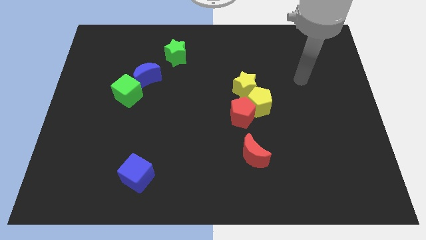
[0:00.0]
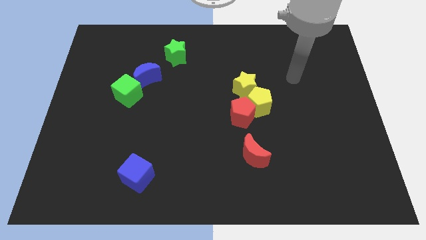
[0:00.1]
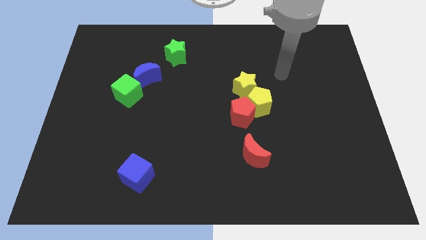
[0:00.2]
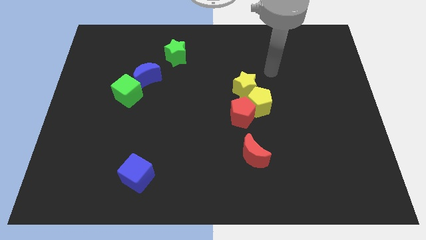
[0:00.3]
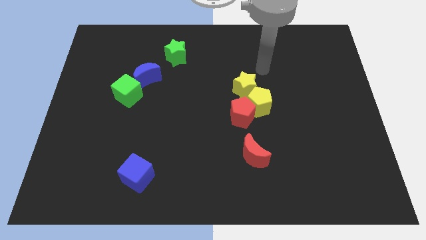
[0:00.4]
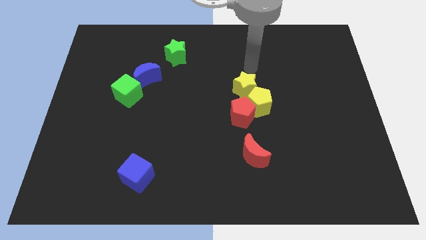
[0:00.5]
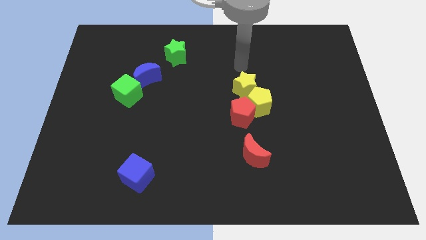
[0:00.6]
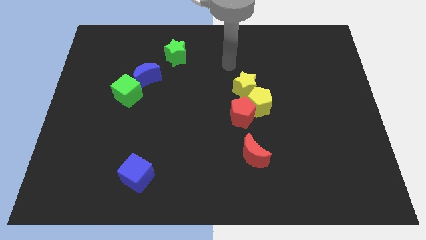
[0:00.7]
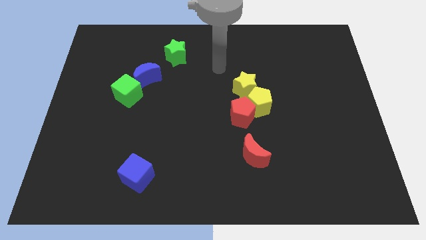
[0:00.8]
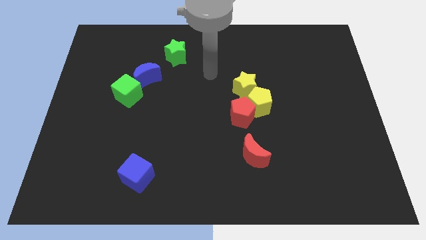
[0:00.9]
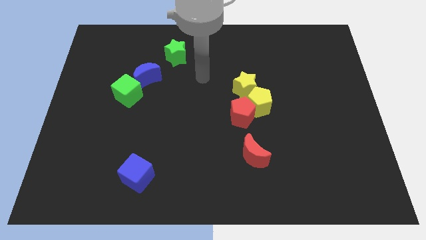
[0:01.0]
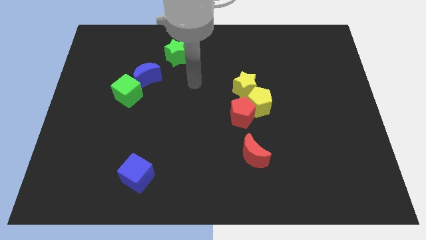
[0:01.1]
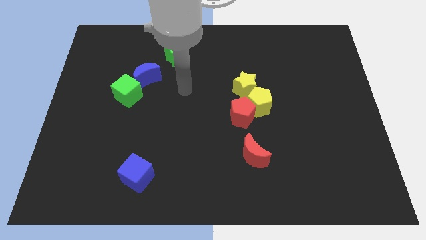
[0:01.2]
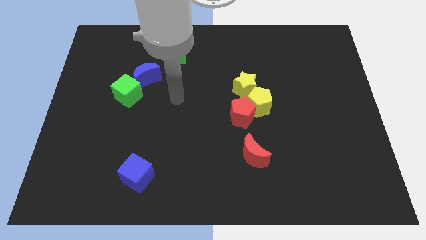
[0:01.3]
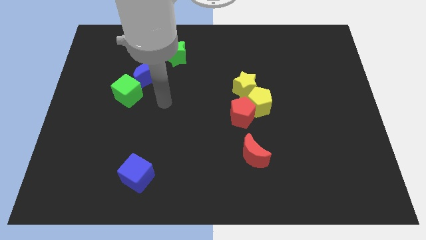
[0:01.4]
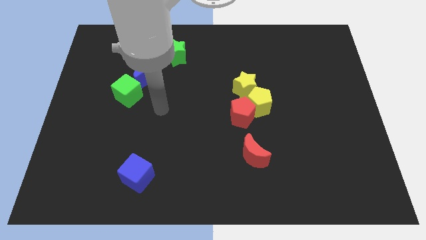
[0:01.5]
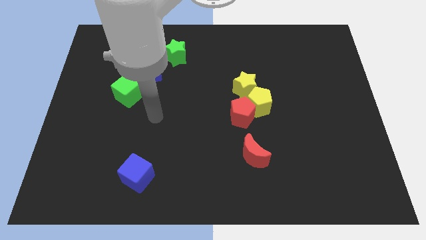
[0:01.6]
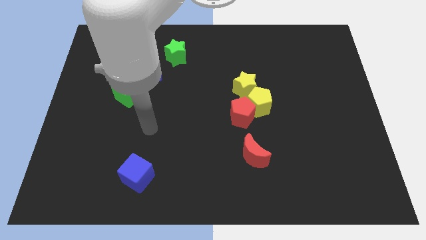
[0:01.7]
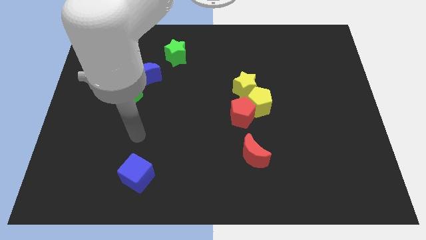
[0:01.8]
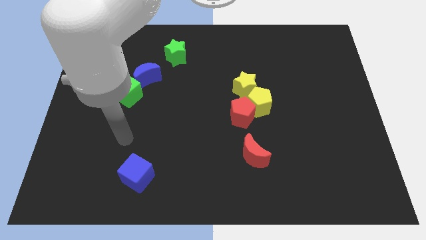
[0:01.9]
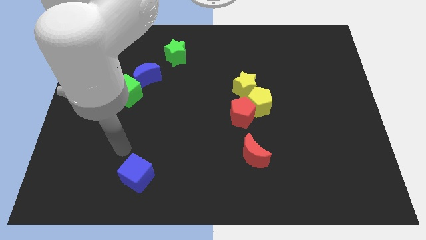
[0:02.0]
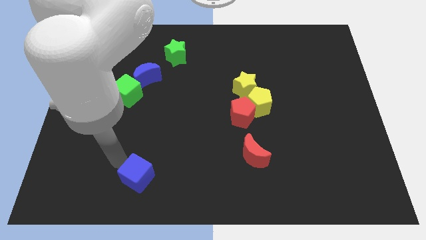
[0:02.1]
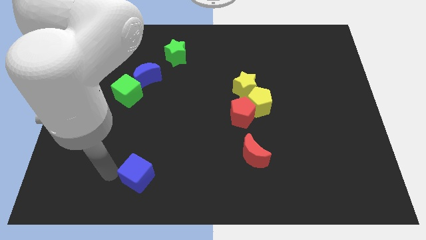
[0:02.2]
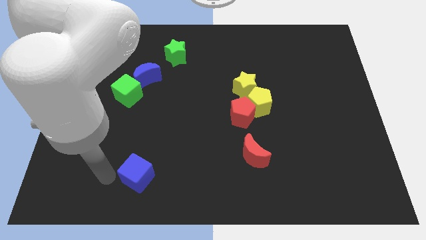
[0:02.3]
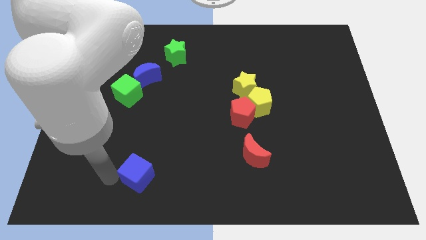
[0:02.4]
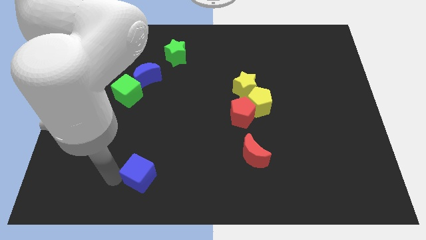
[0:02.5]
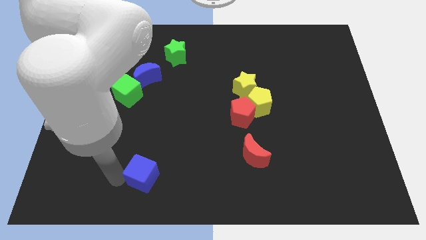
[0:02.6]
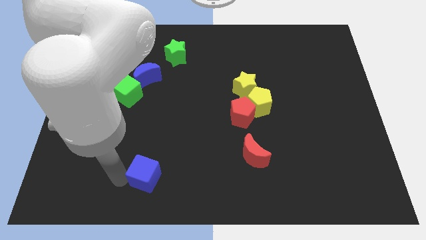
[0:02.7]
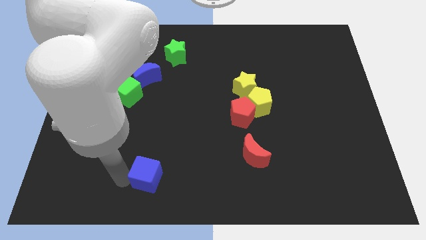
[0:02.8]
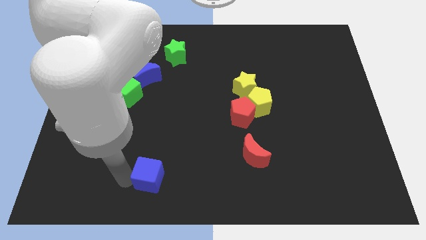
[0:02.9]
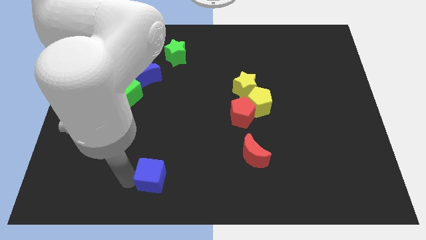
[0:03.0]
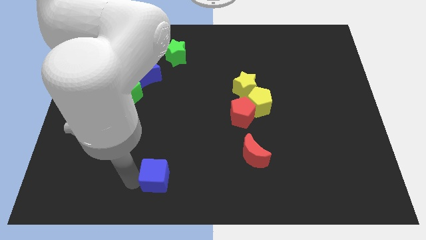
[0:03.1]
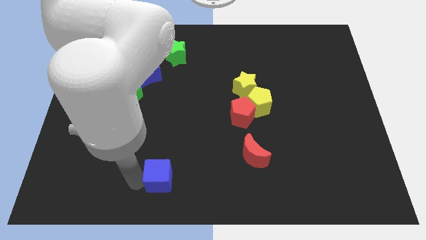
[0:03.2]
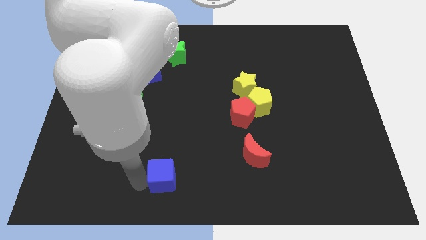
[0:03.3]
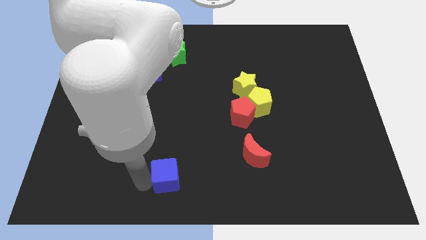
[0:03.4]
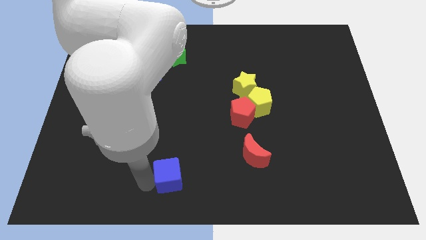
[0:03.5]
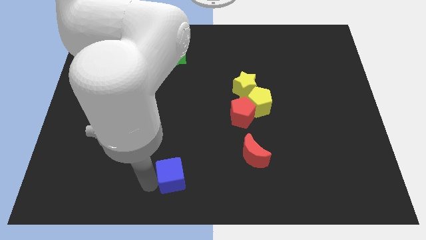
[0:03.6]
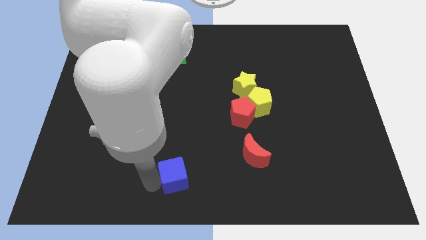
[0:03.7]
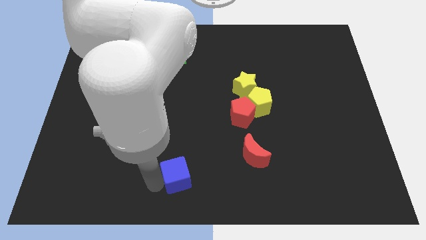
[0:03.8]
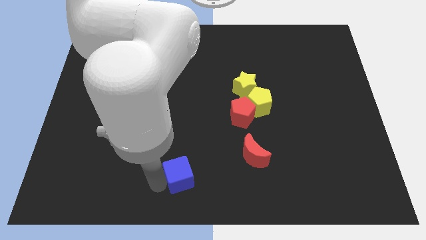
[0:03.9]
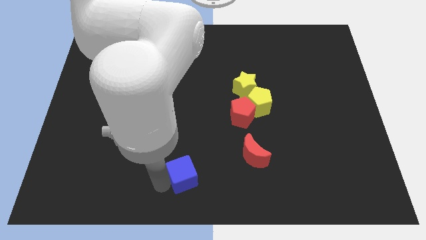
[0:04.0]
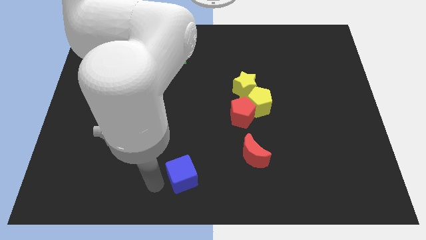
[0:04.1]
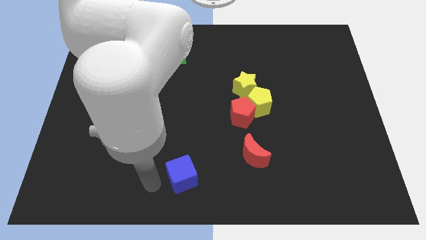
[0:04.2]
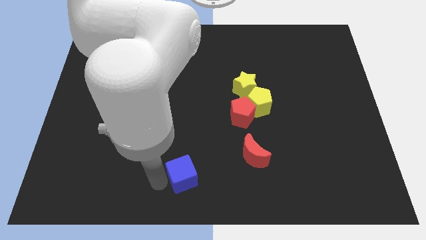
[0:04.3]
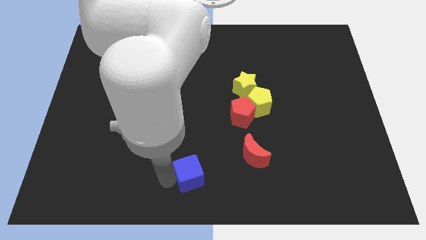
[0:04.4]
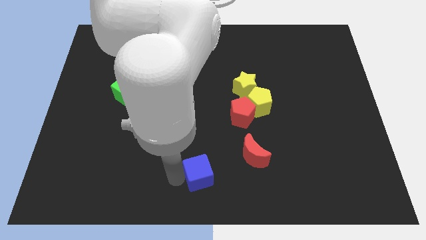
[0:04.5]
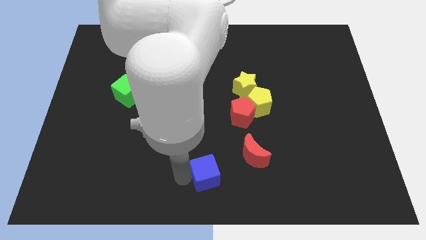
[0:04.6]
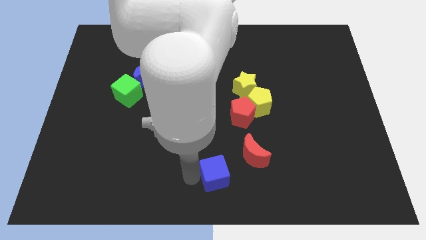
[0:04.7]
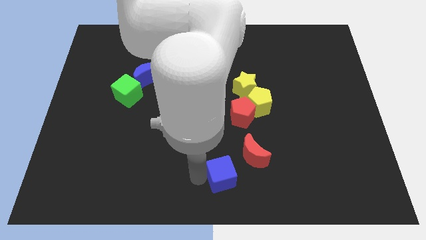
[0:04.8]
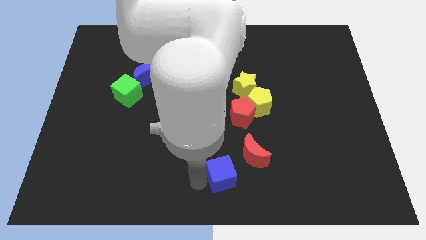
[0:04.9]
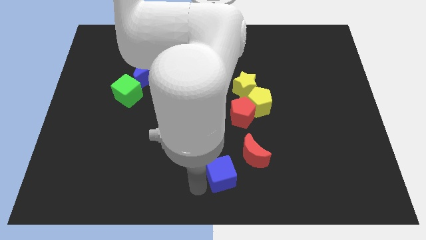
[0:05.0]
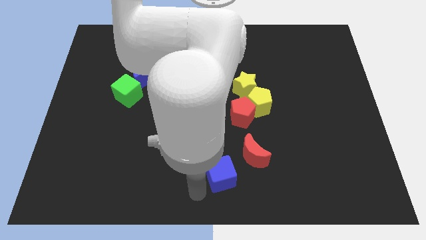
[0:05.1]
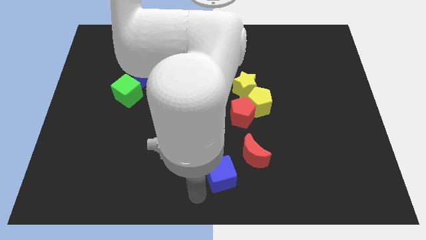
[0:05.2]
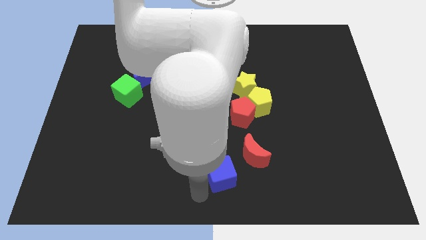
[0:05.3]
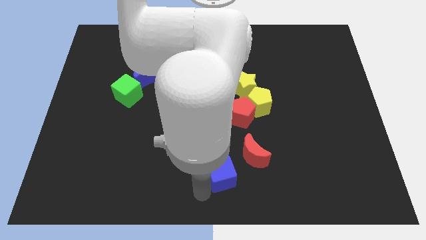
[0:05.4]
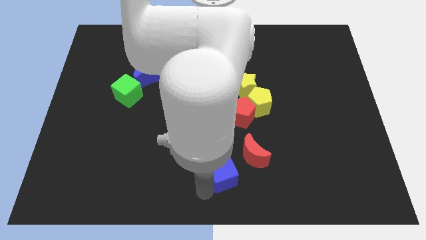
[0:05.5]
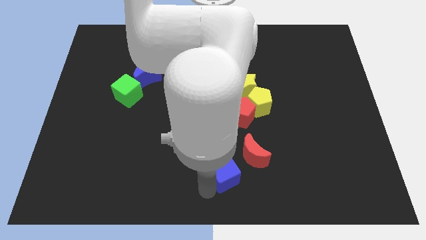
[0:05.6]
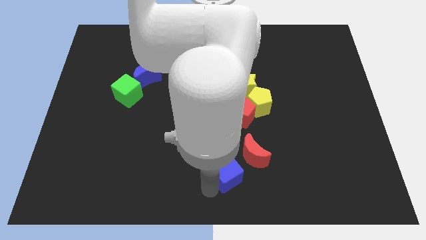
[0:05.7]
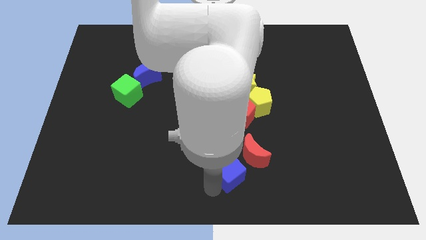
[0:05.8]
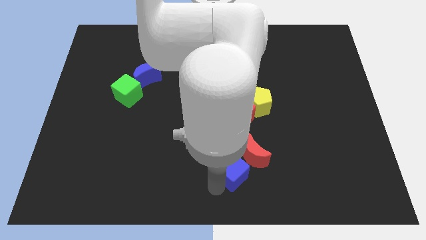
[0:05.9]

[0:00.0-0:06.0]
push the blue cube next to the red moon
